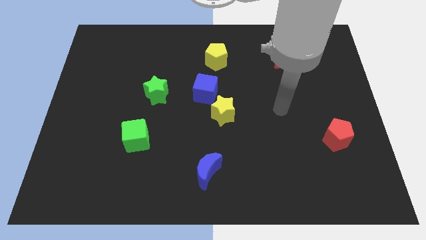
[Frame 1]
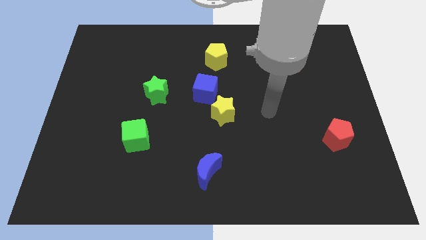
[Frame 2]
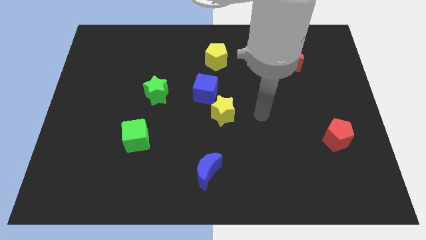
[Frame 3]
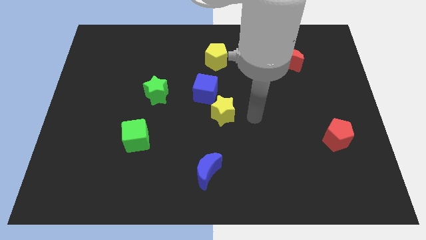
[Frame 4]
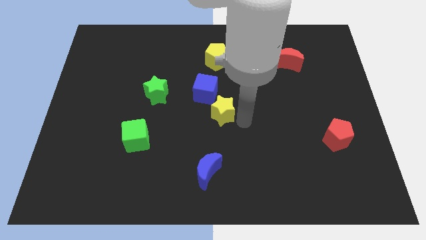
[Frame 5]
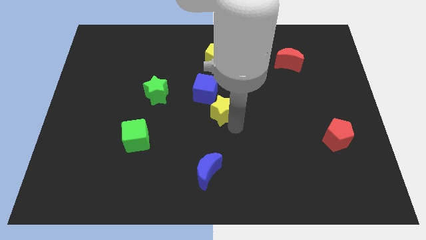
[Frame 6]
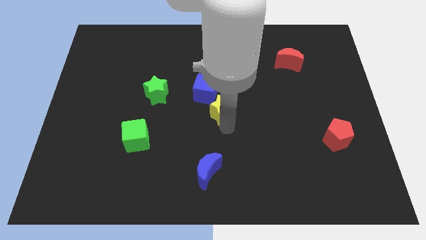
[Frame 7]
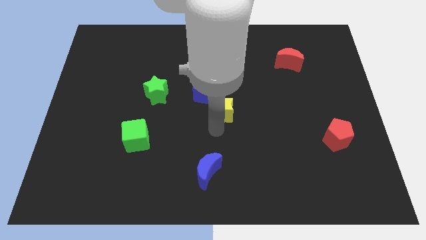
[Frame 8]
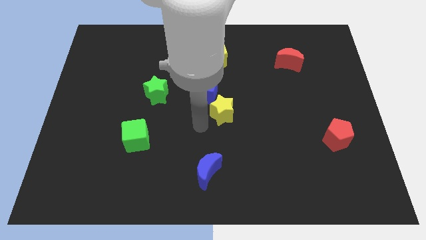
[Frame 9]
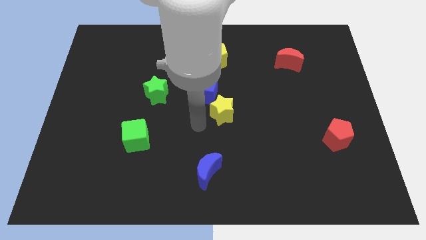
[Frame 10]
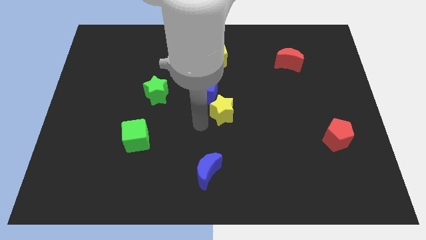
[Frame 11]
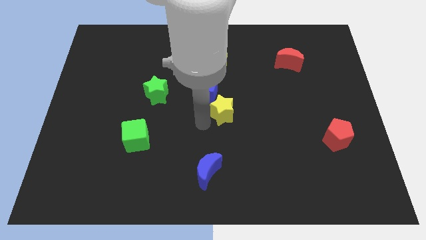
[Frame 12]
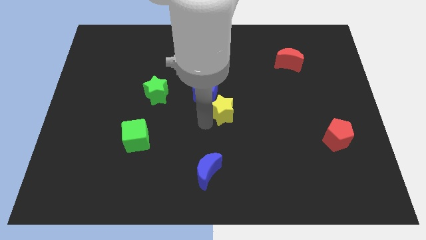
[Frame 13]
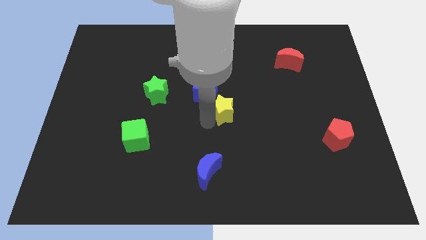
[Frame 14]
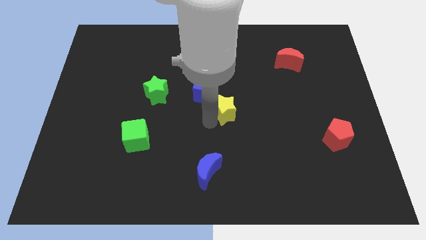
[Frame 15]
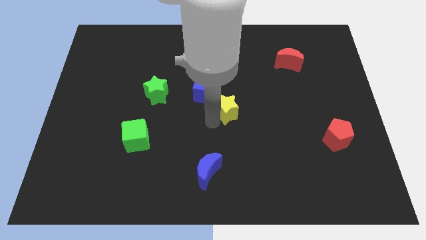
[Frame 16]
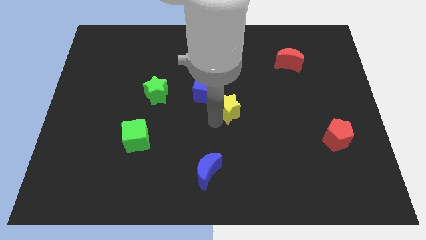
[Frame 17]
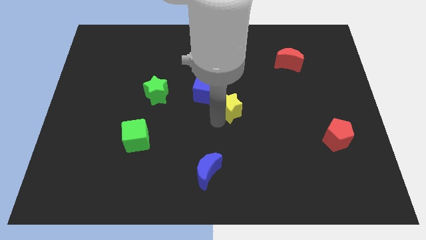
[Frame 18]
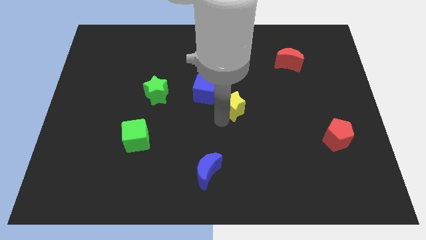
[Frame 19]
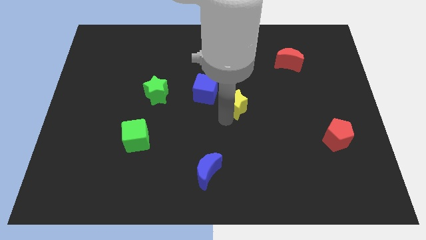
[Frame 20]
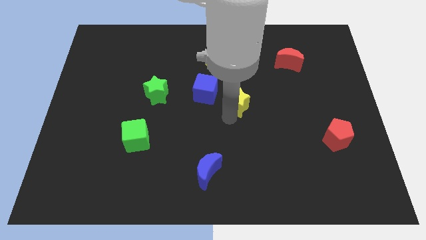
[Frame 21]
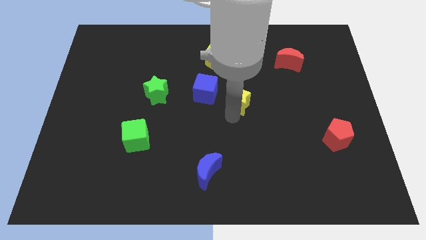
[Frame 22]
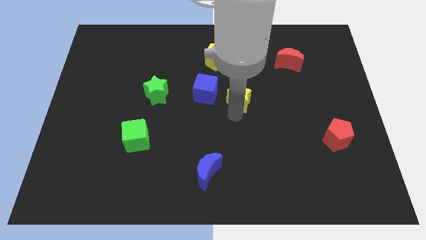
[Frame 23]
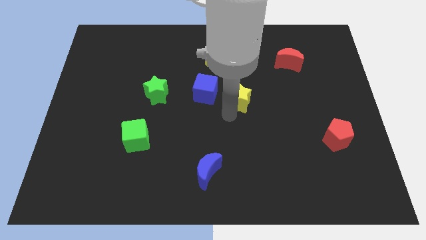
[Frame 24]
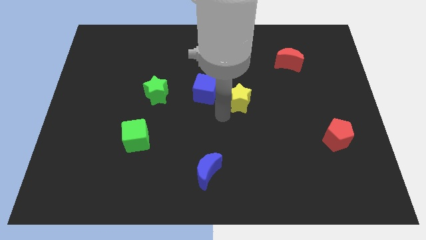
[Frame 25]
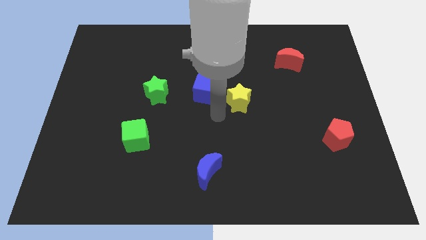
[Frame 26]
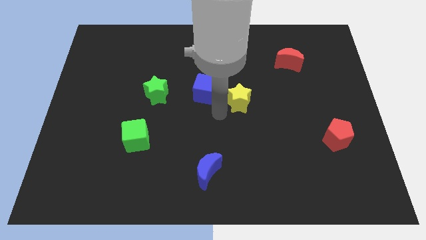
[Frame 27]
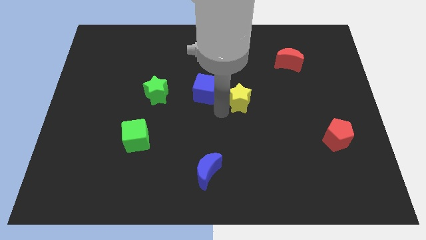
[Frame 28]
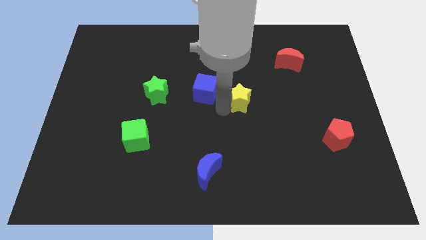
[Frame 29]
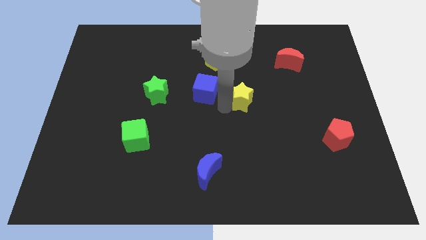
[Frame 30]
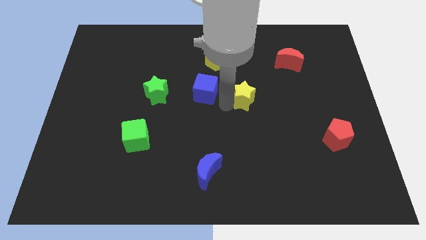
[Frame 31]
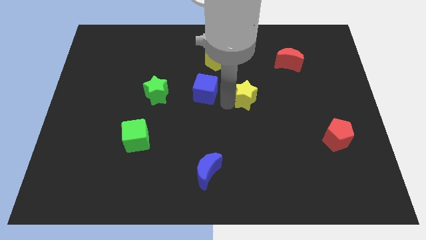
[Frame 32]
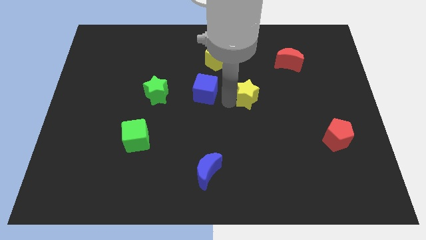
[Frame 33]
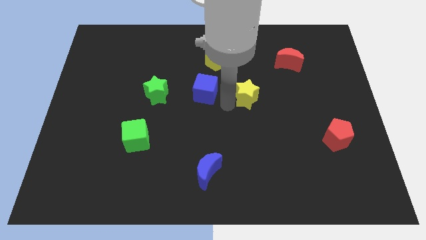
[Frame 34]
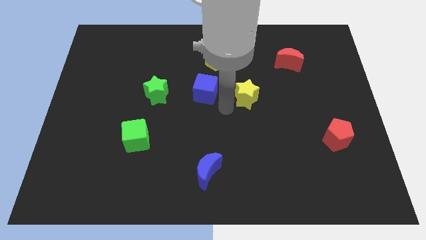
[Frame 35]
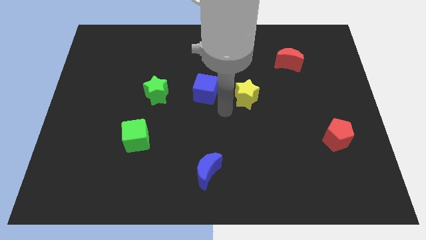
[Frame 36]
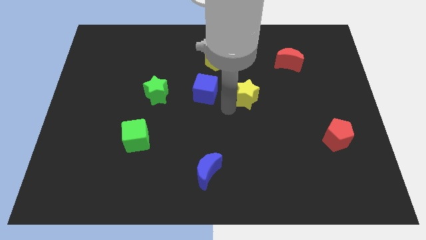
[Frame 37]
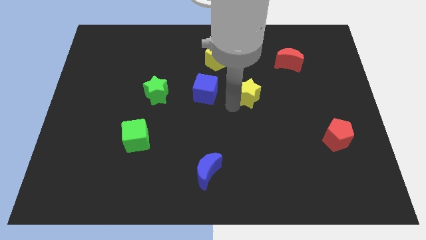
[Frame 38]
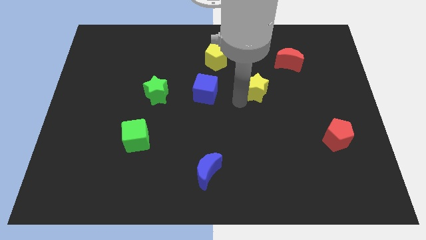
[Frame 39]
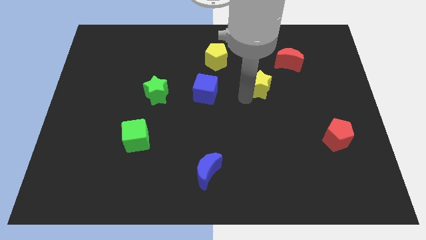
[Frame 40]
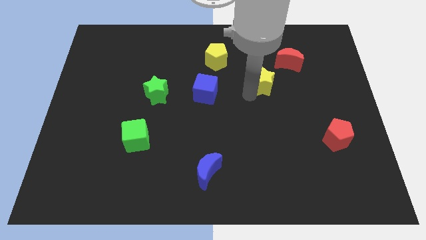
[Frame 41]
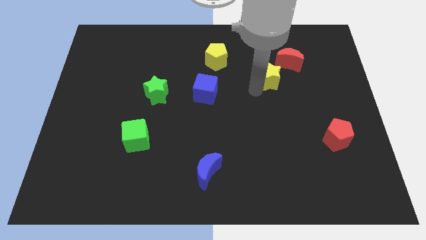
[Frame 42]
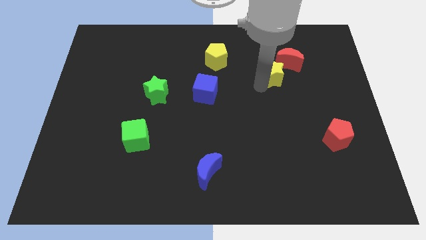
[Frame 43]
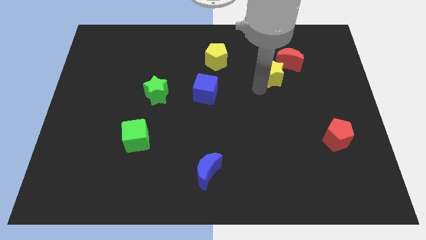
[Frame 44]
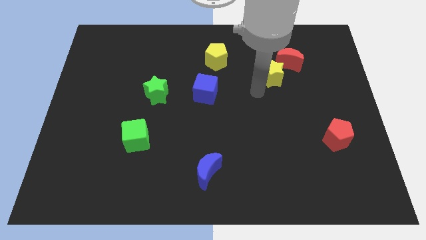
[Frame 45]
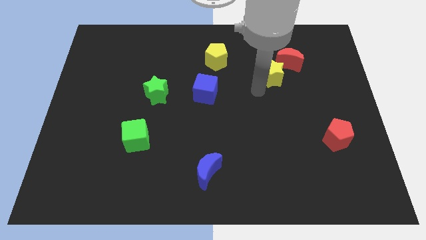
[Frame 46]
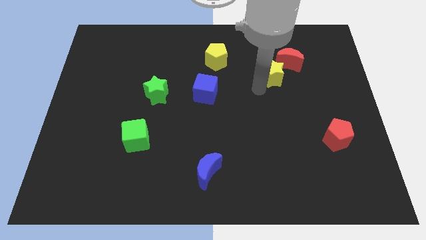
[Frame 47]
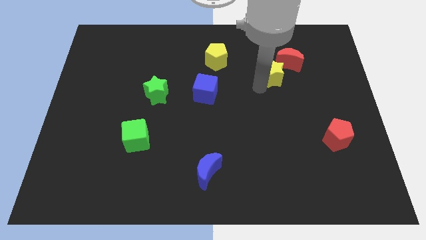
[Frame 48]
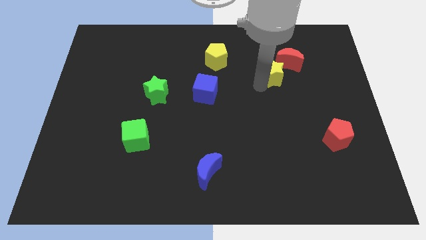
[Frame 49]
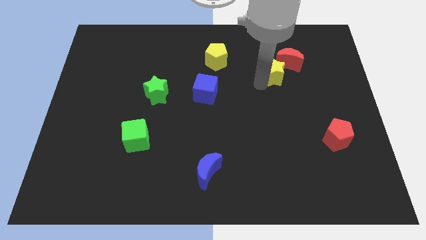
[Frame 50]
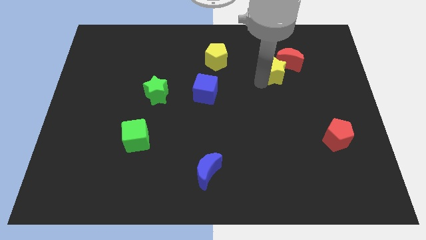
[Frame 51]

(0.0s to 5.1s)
put the yellow star to the red moon

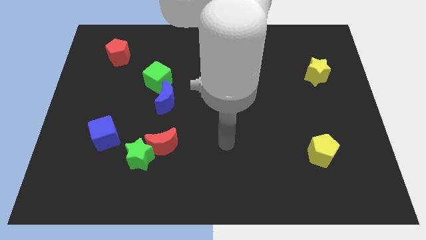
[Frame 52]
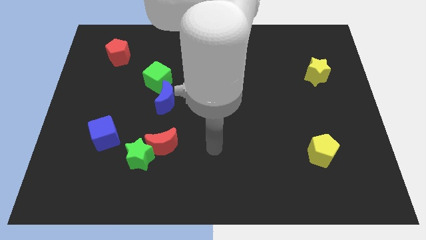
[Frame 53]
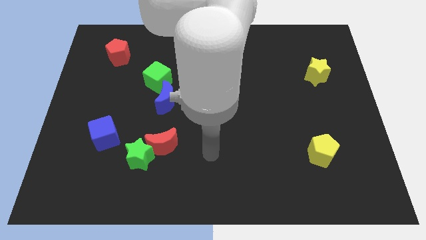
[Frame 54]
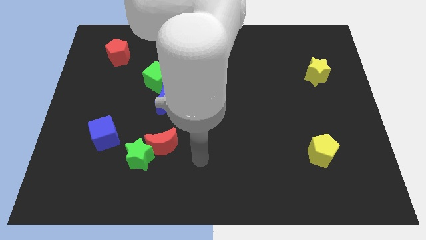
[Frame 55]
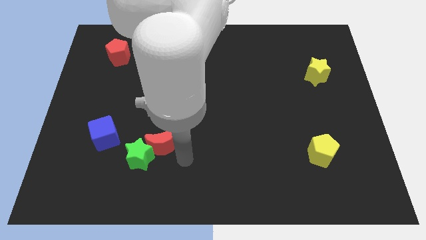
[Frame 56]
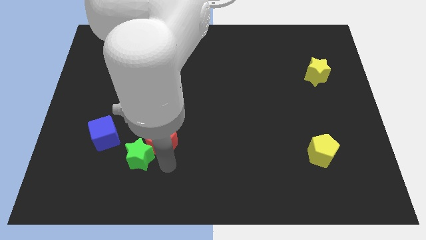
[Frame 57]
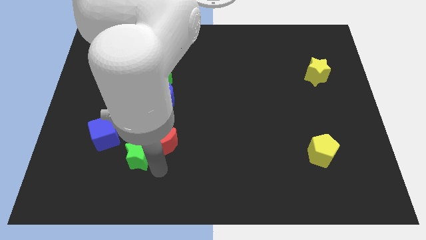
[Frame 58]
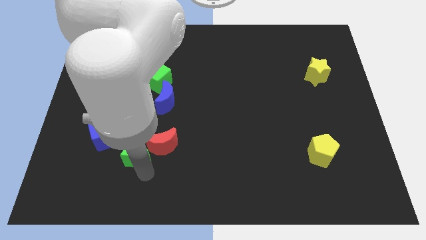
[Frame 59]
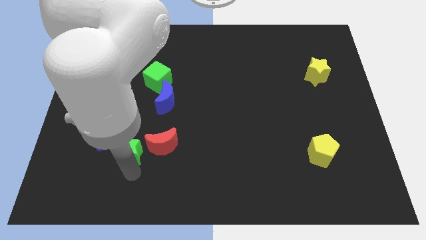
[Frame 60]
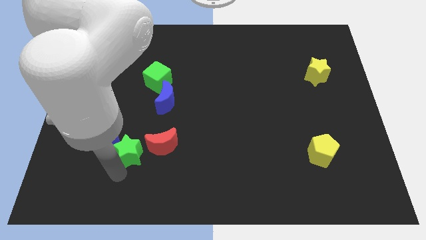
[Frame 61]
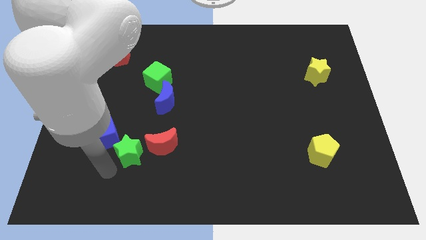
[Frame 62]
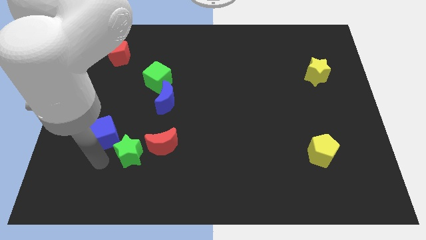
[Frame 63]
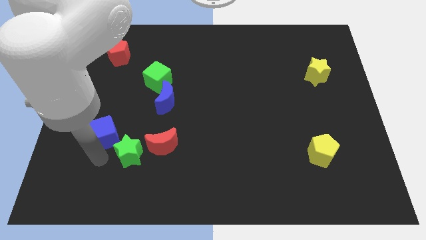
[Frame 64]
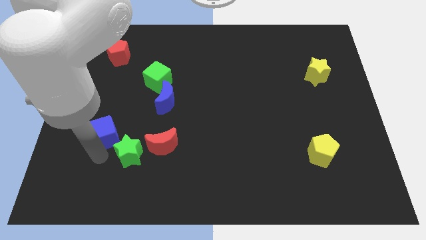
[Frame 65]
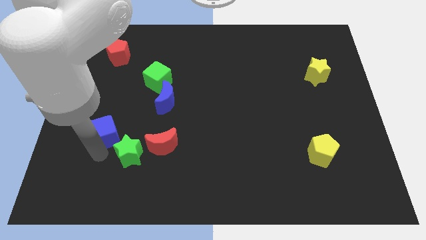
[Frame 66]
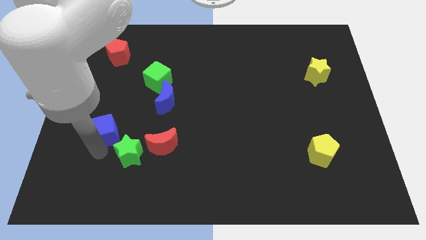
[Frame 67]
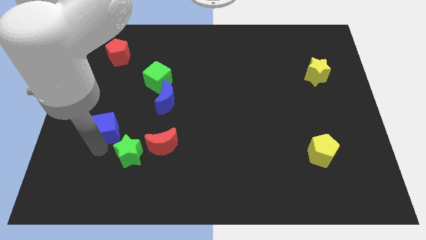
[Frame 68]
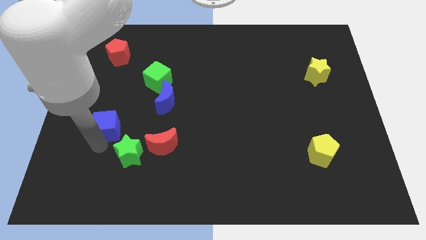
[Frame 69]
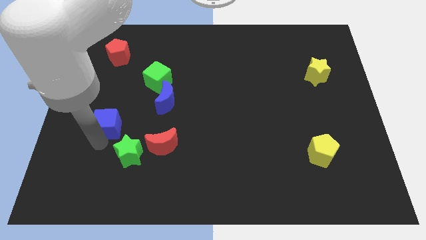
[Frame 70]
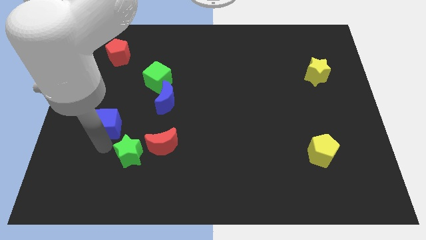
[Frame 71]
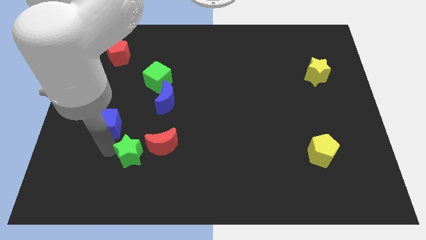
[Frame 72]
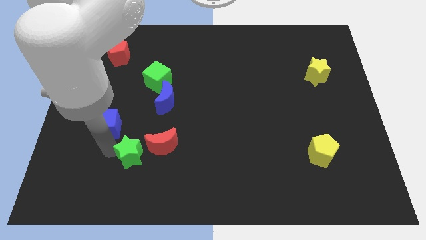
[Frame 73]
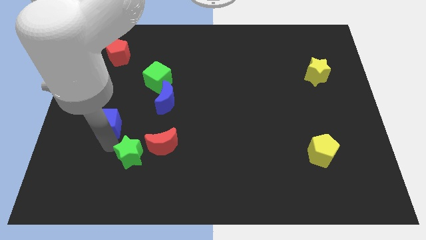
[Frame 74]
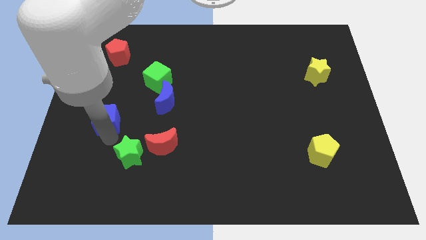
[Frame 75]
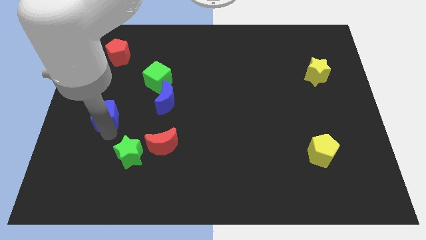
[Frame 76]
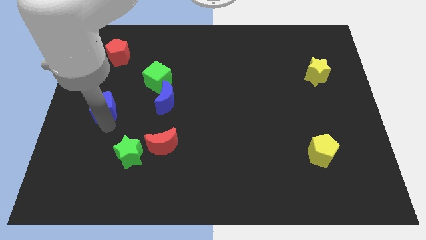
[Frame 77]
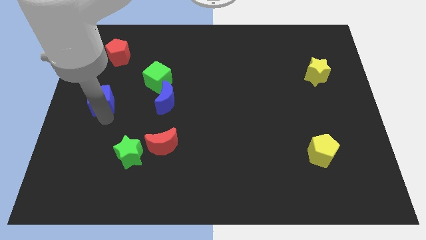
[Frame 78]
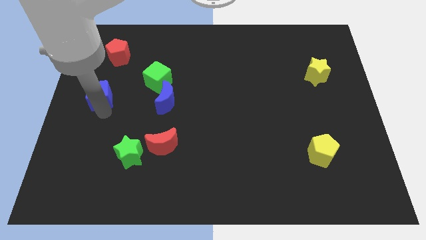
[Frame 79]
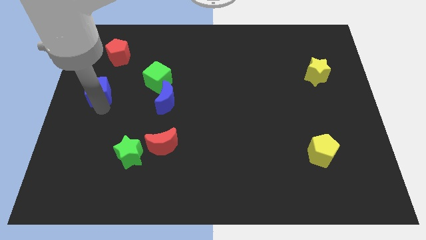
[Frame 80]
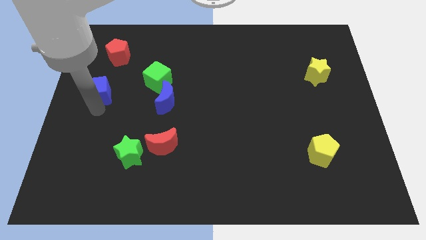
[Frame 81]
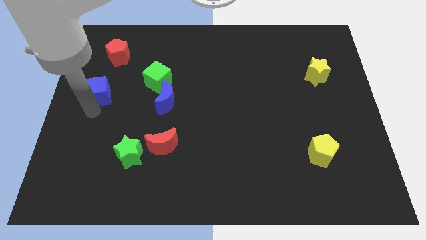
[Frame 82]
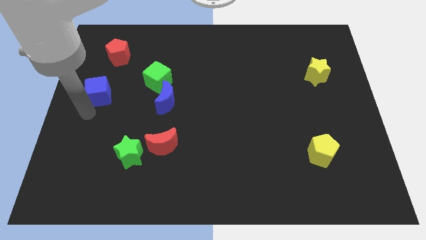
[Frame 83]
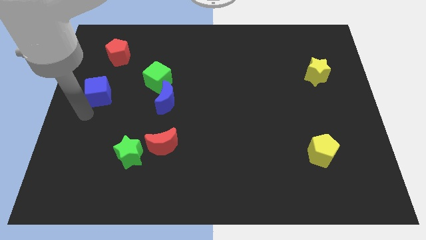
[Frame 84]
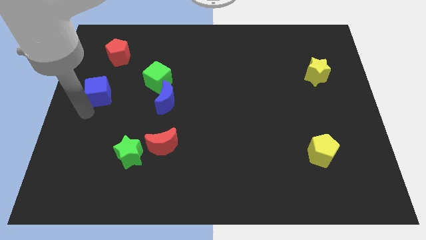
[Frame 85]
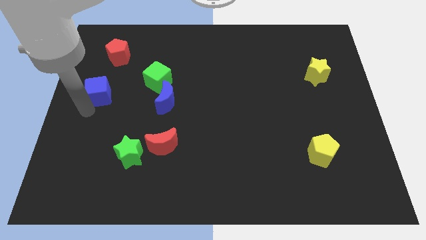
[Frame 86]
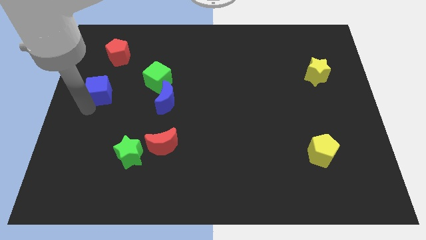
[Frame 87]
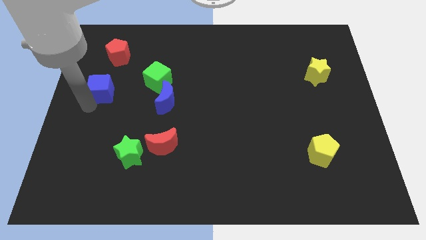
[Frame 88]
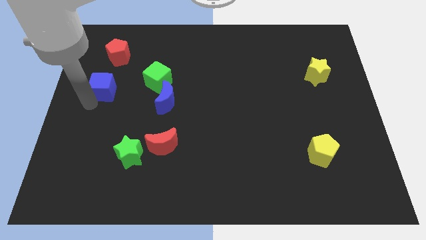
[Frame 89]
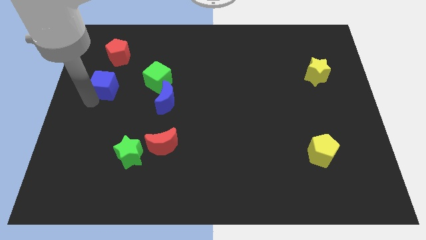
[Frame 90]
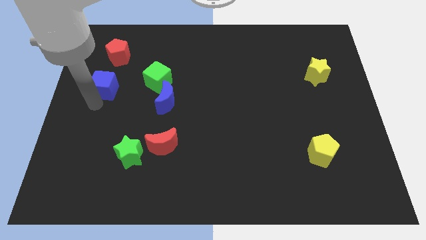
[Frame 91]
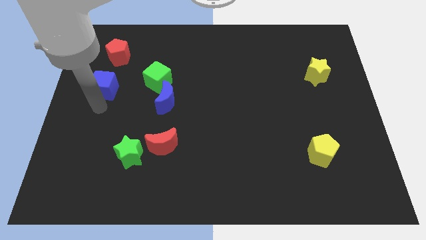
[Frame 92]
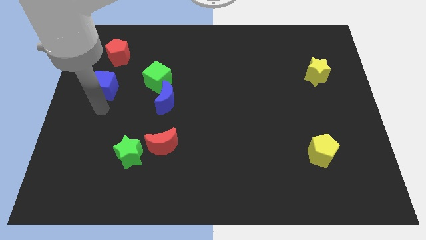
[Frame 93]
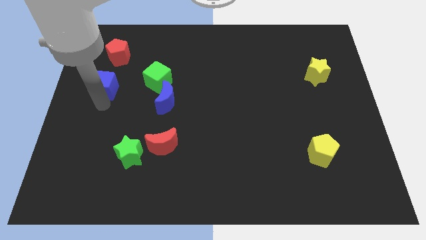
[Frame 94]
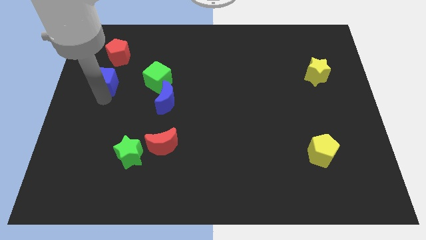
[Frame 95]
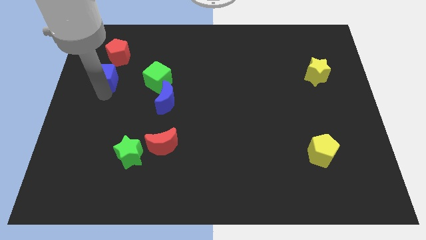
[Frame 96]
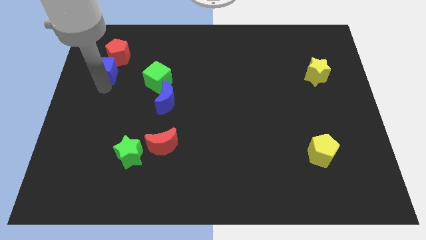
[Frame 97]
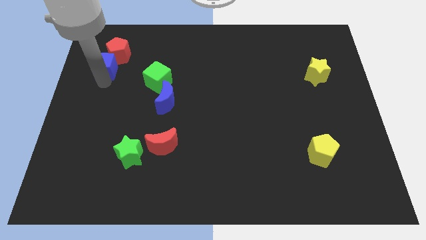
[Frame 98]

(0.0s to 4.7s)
slide the blue cube to the red pentagon
